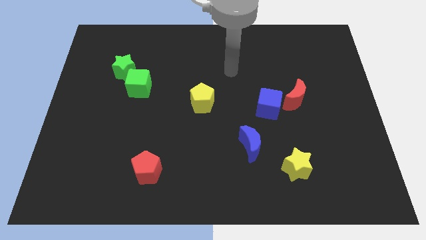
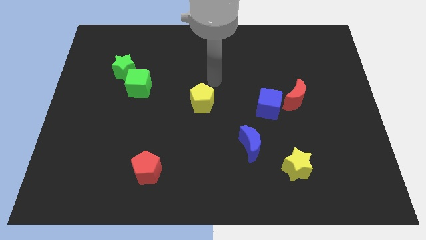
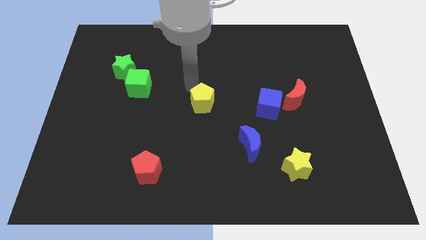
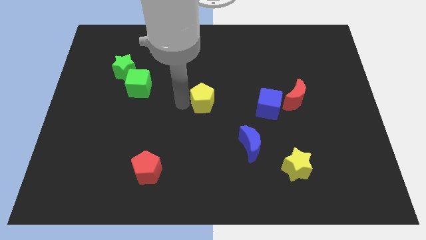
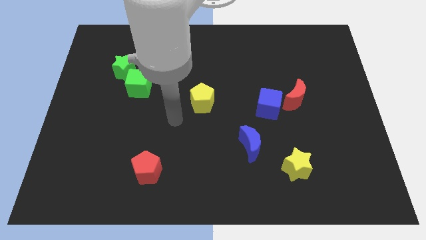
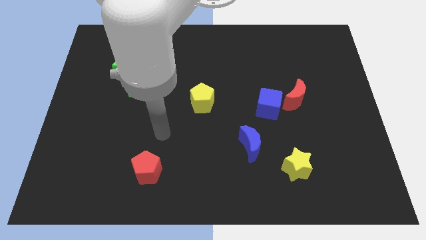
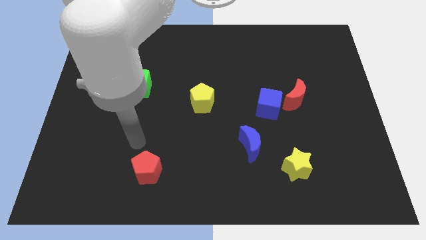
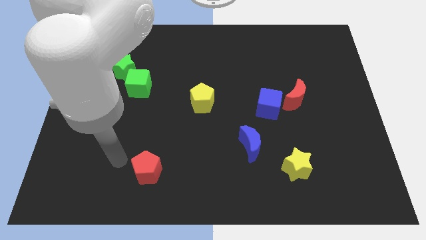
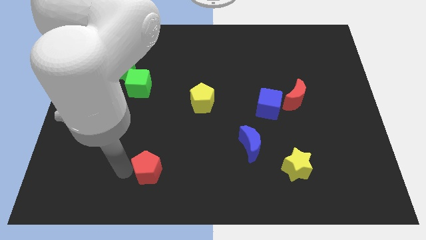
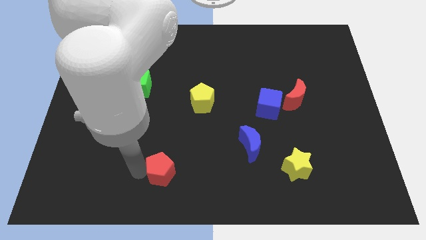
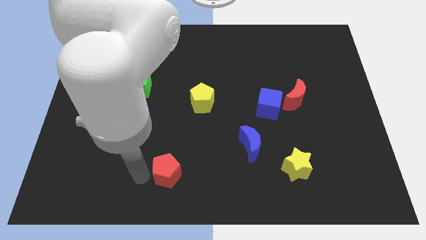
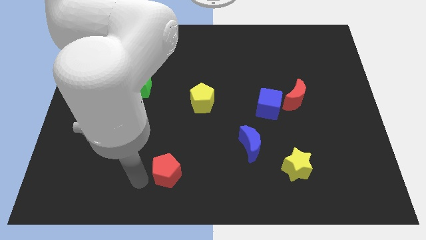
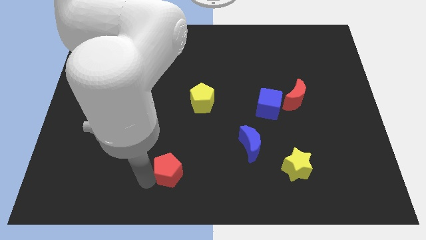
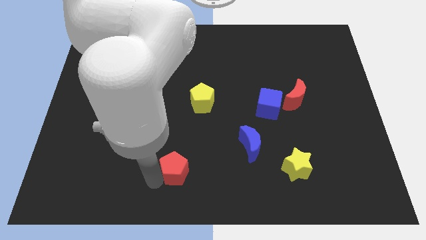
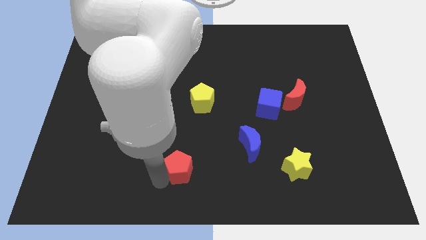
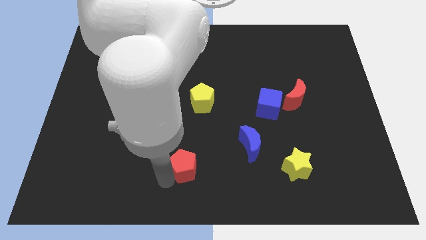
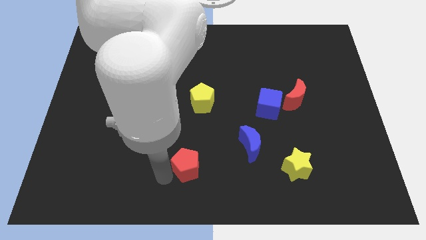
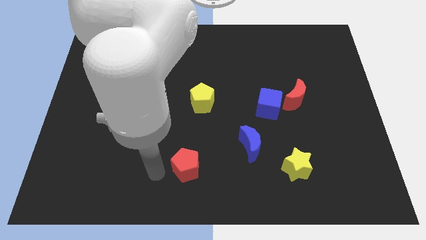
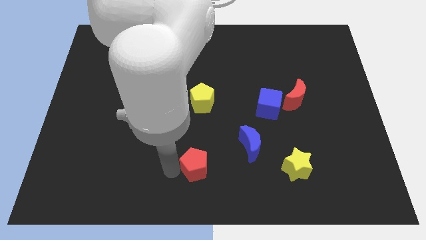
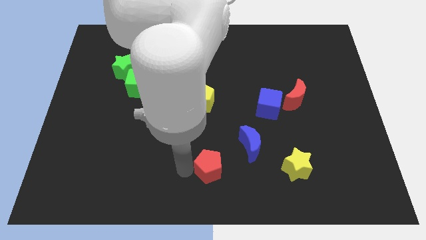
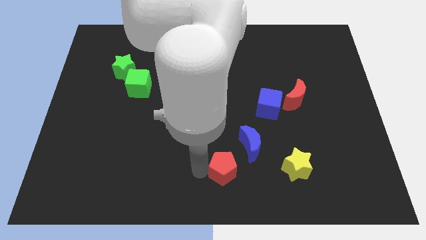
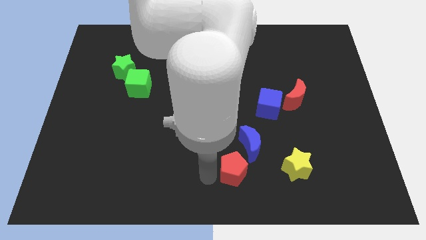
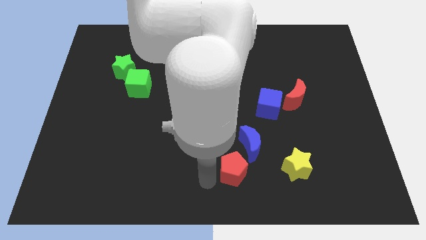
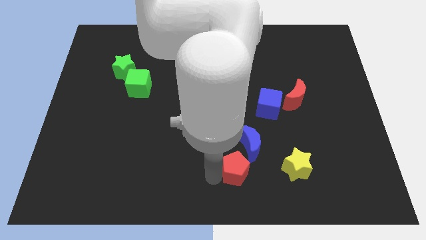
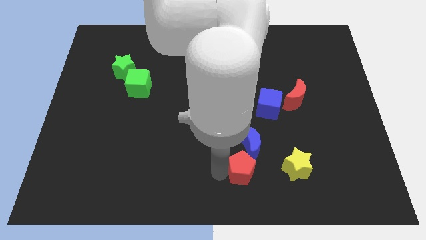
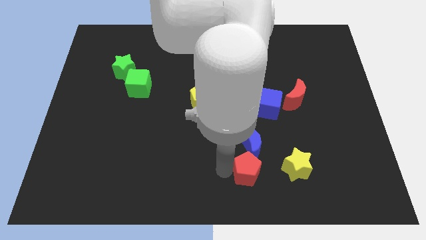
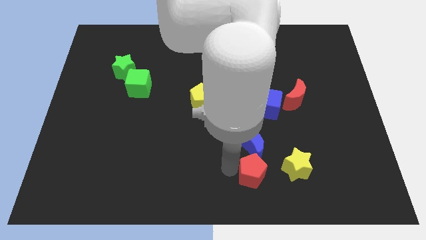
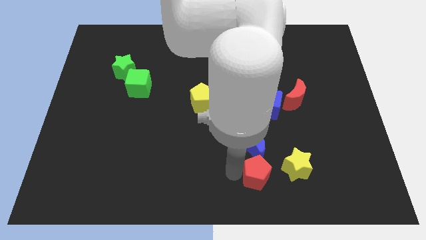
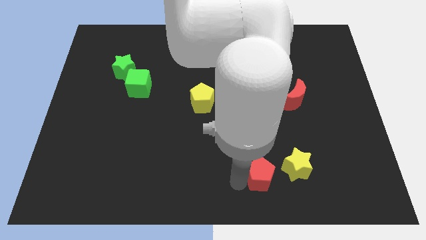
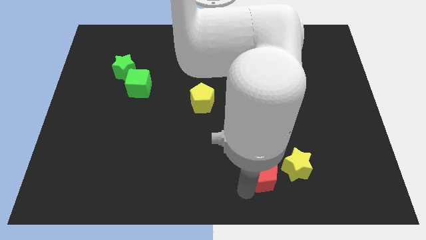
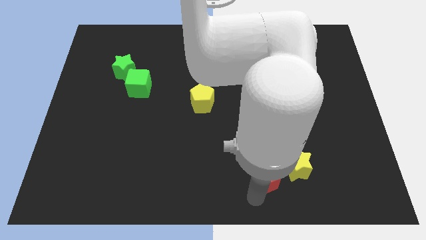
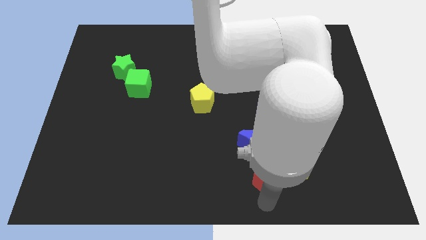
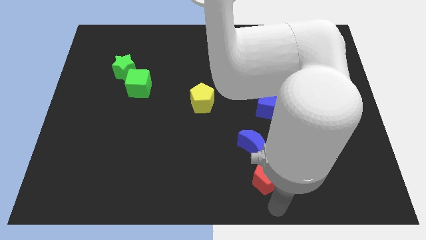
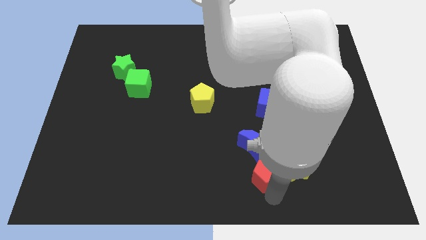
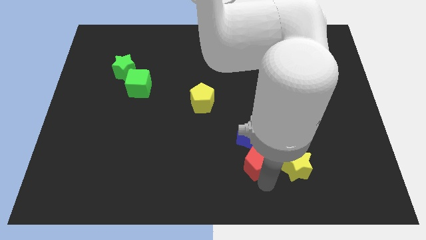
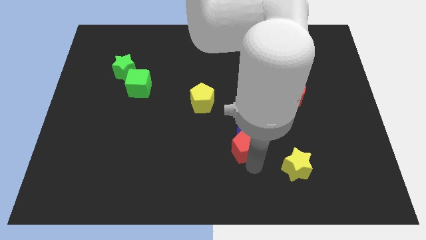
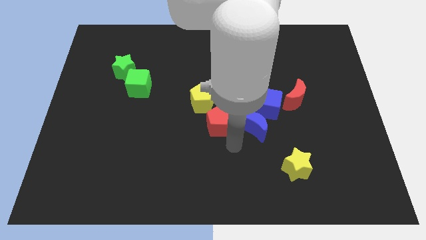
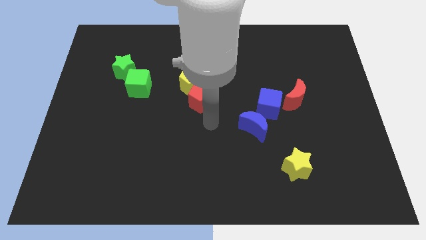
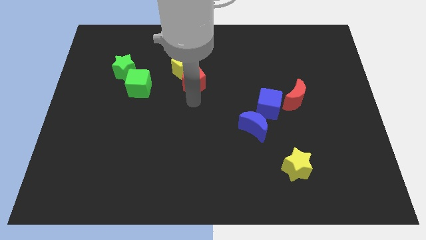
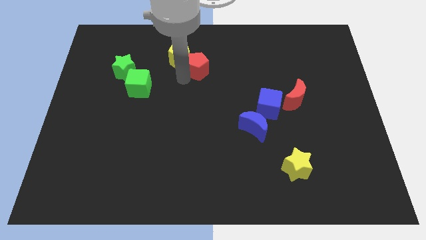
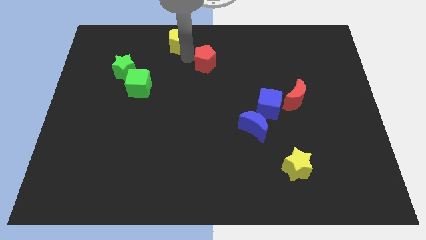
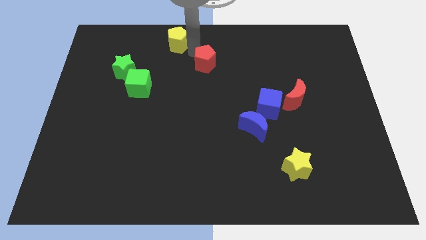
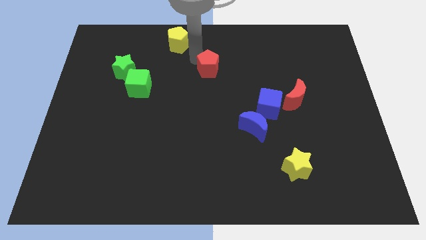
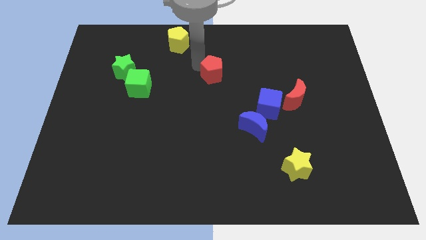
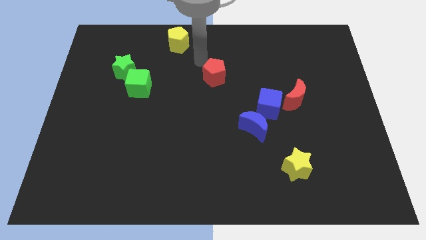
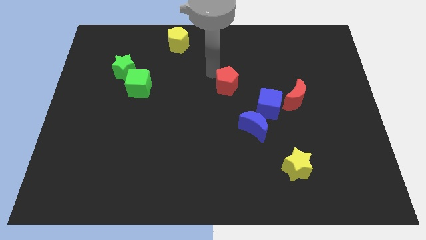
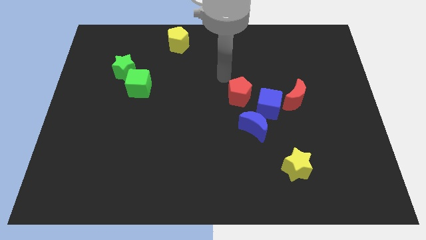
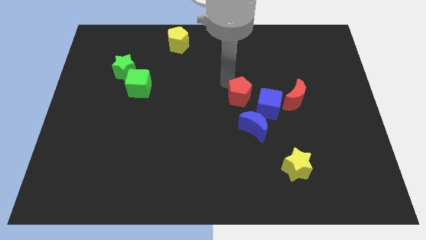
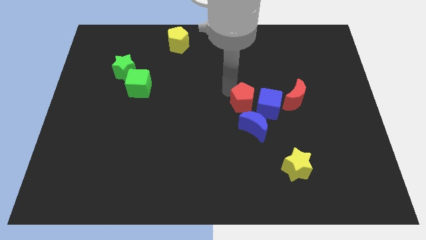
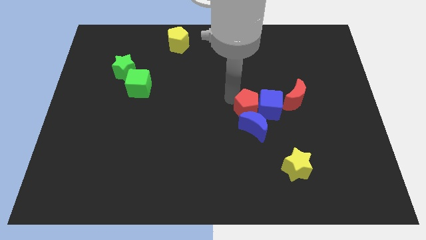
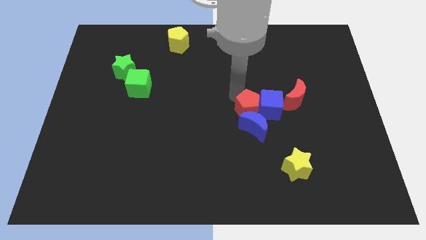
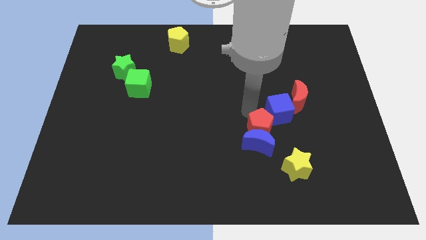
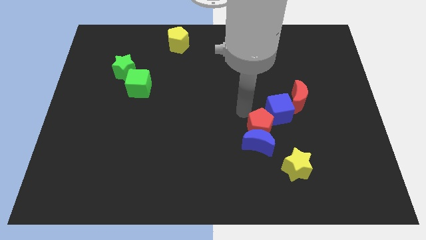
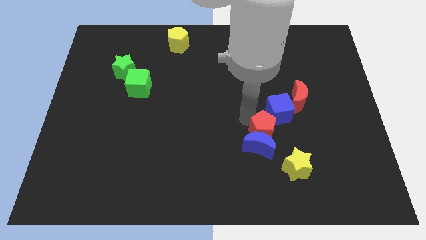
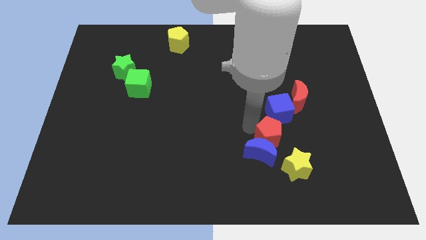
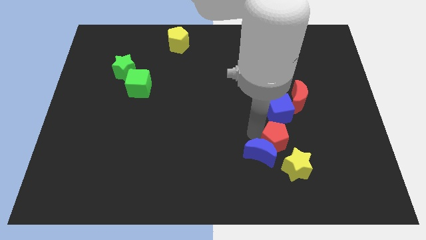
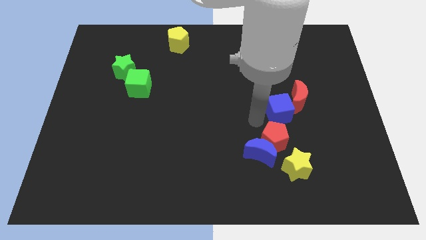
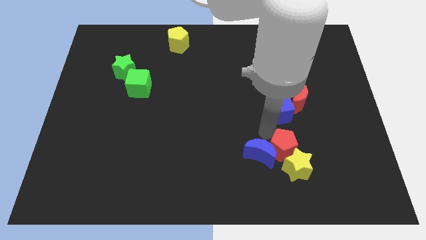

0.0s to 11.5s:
slide the red pentagon to the yellow star

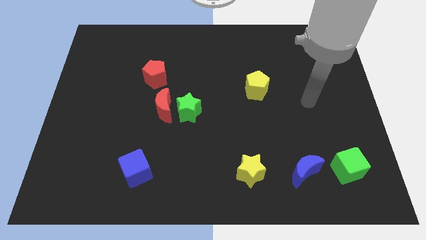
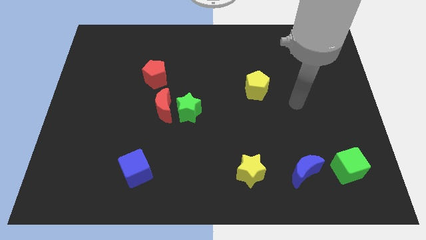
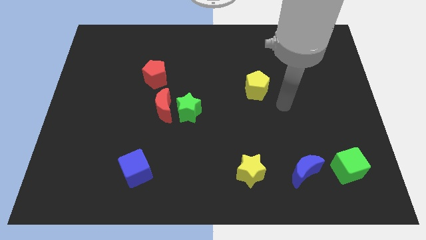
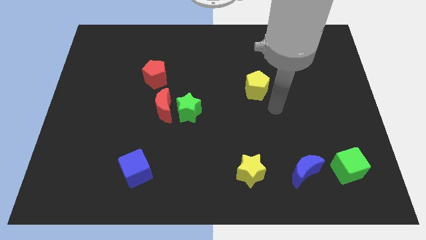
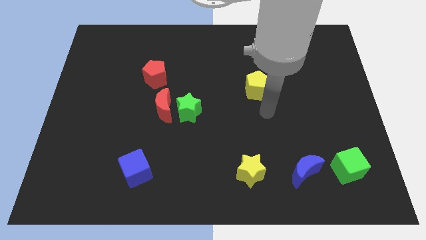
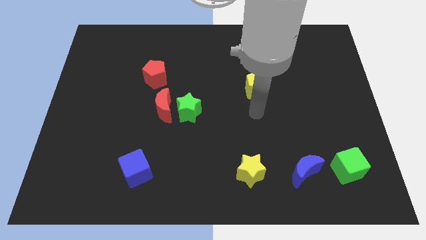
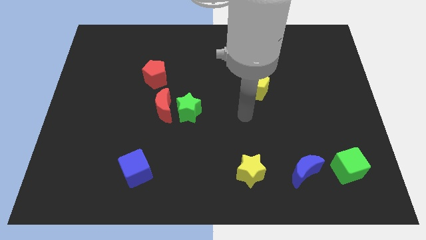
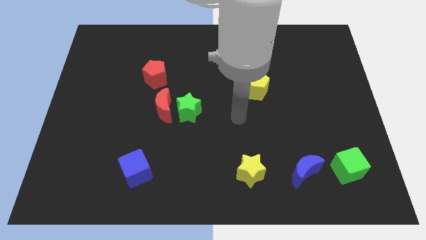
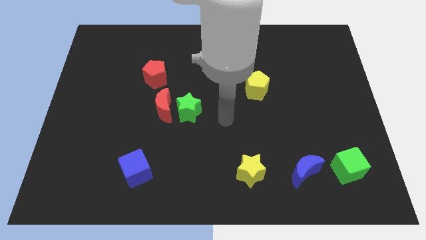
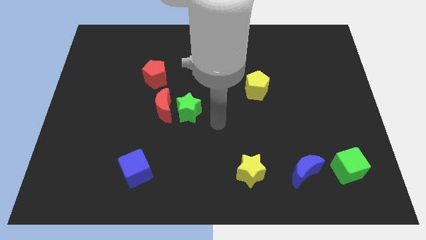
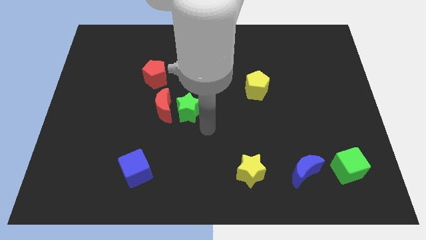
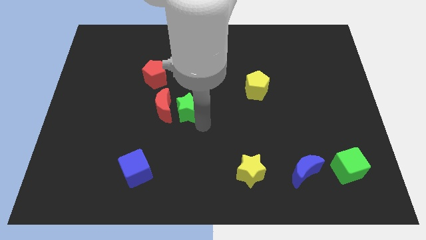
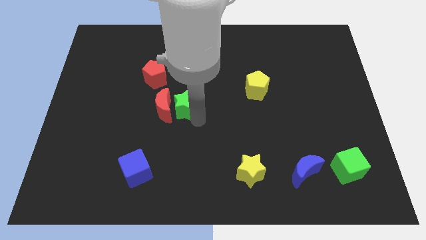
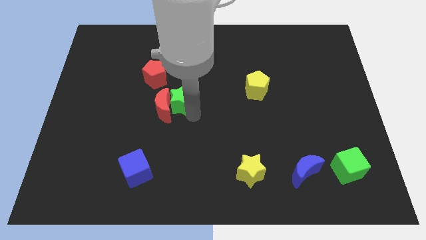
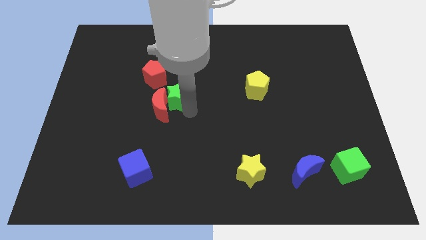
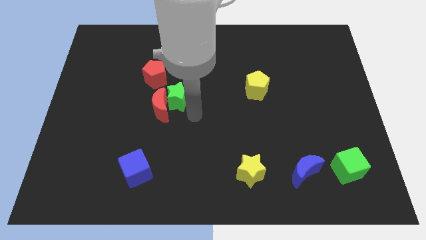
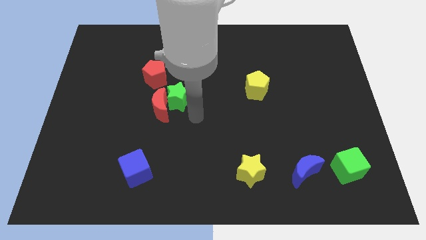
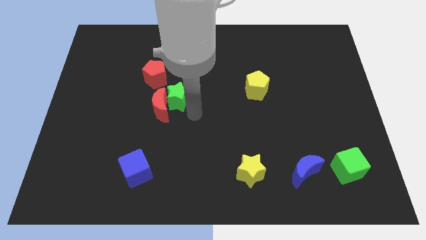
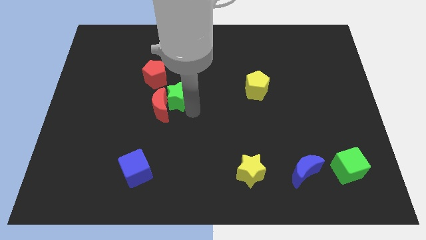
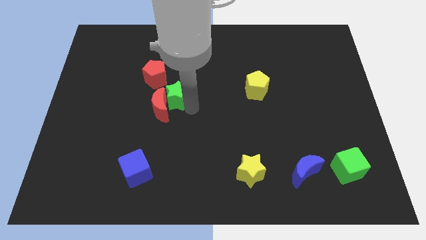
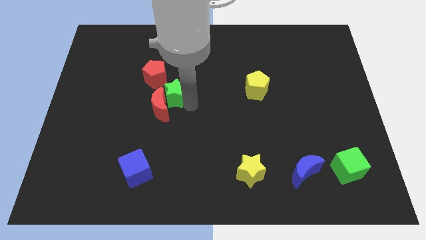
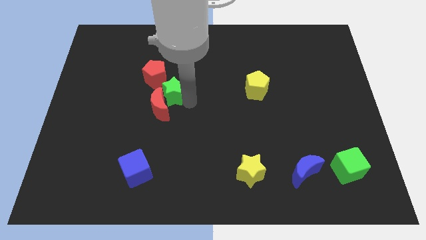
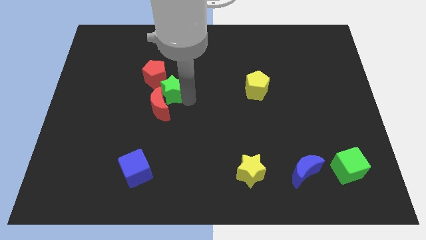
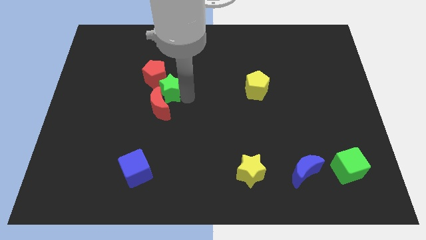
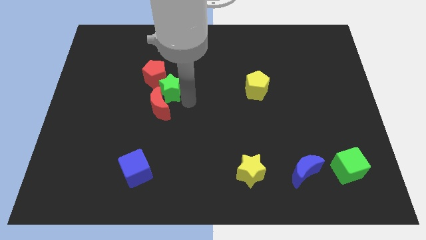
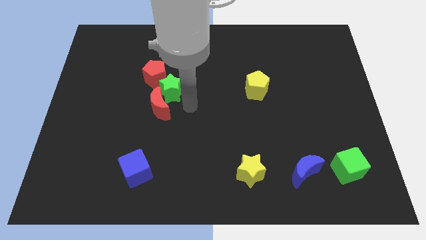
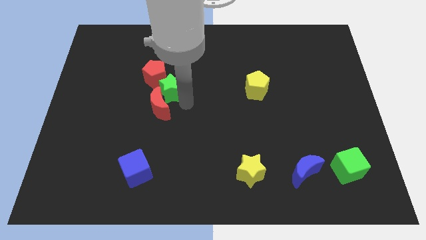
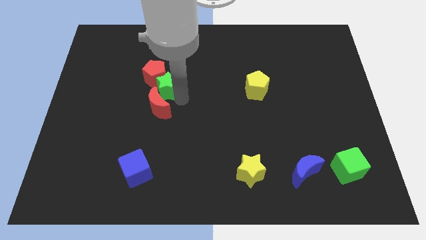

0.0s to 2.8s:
move the green star next to the red pentagon
